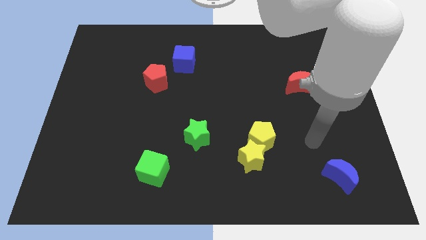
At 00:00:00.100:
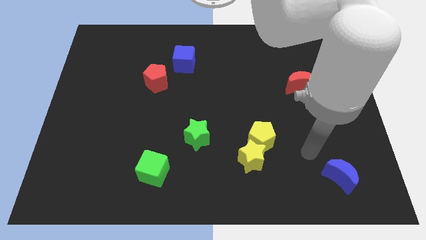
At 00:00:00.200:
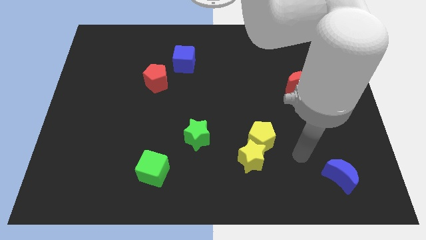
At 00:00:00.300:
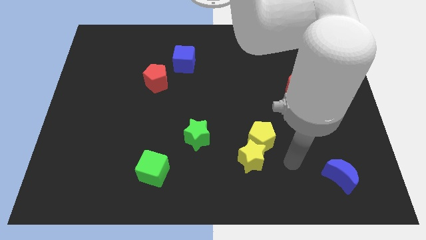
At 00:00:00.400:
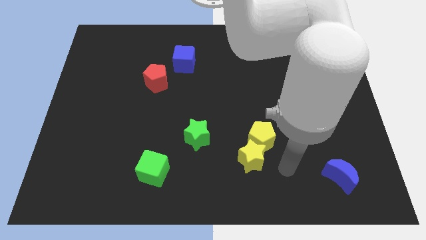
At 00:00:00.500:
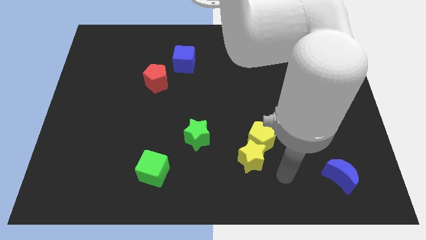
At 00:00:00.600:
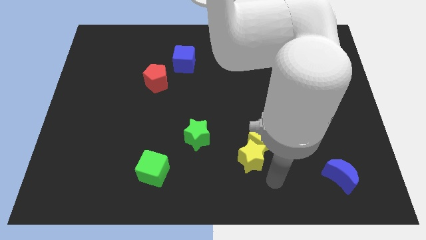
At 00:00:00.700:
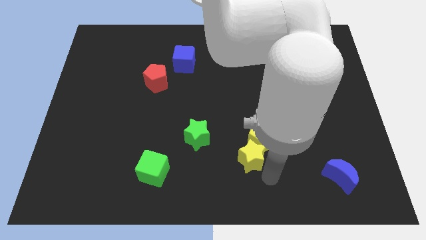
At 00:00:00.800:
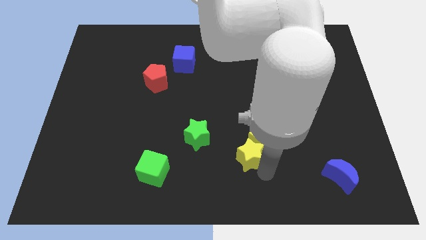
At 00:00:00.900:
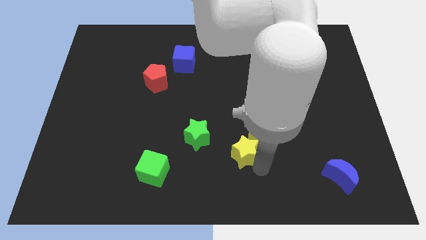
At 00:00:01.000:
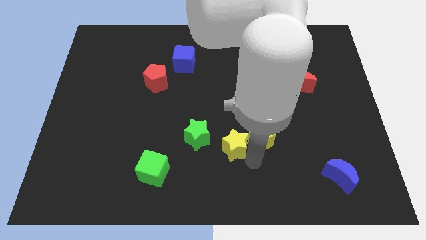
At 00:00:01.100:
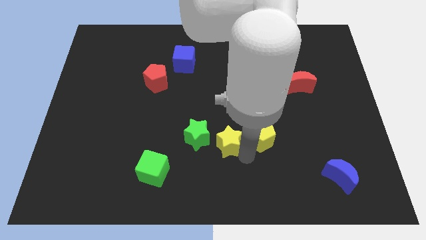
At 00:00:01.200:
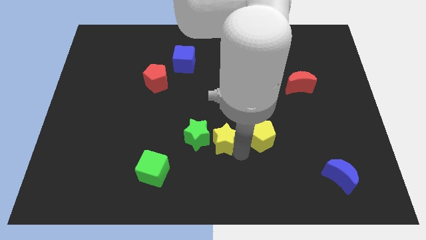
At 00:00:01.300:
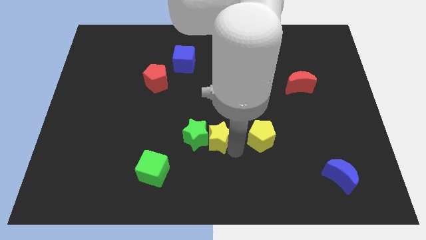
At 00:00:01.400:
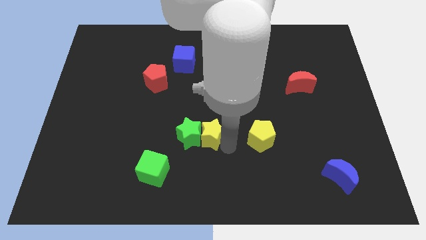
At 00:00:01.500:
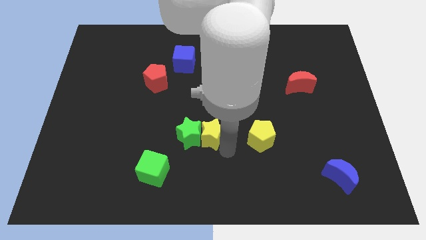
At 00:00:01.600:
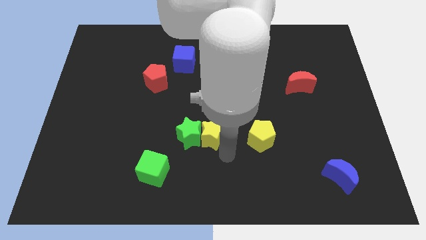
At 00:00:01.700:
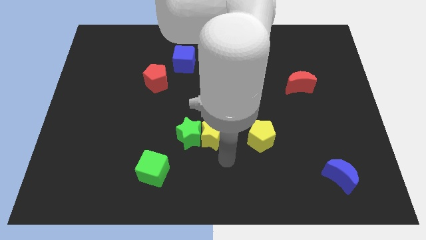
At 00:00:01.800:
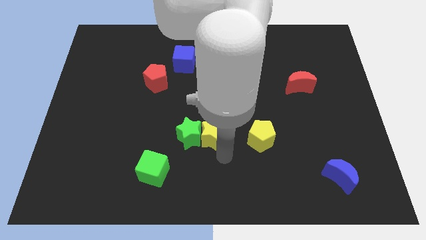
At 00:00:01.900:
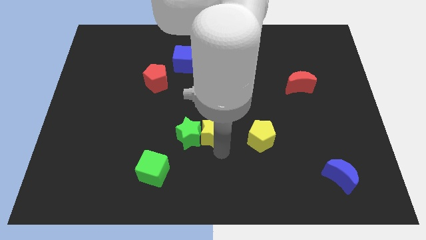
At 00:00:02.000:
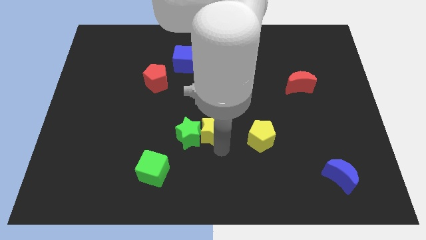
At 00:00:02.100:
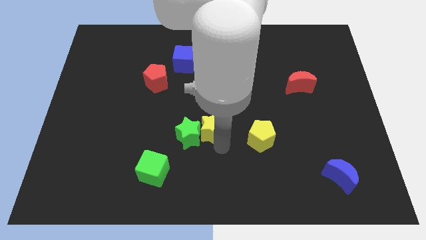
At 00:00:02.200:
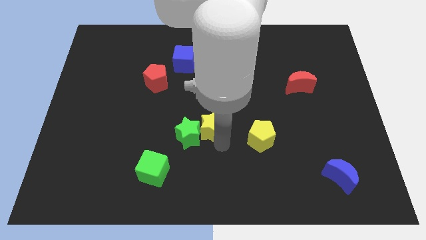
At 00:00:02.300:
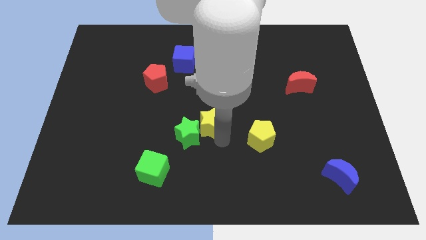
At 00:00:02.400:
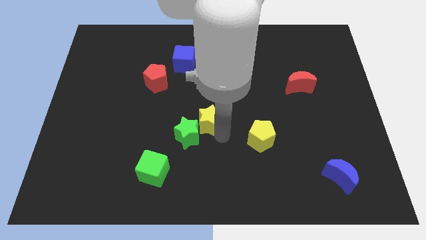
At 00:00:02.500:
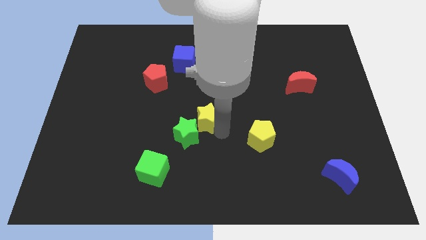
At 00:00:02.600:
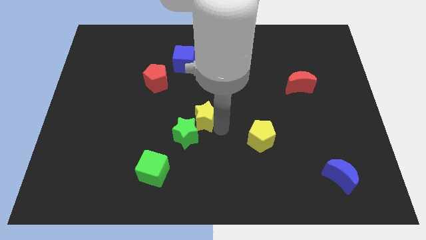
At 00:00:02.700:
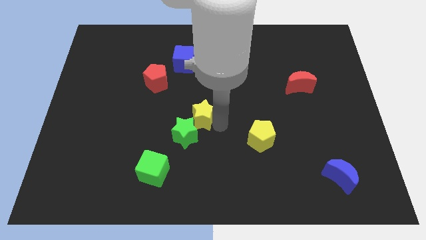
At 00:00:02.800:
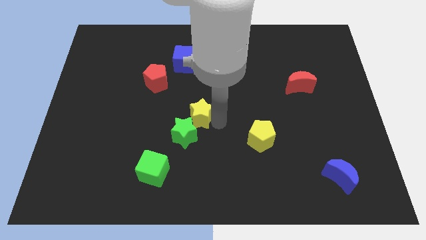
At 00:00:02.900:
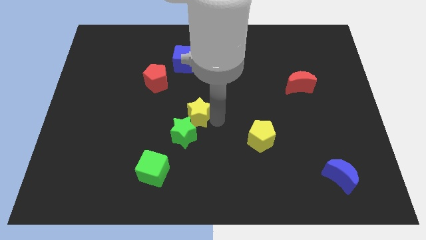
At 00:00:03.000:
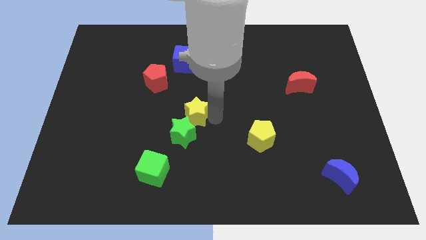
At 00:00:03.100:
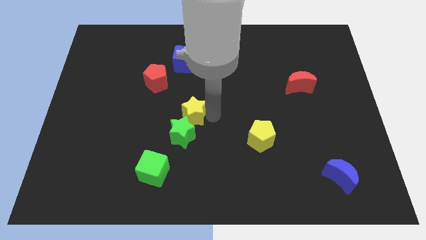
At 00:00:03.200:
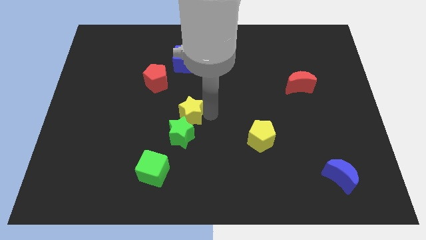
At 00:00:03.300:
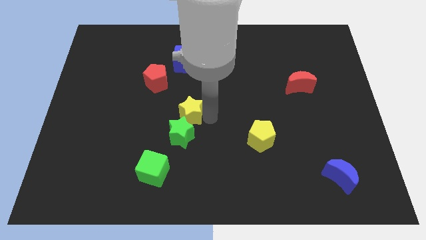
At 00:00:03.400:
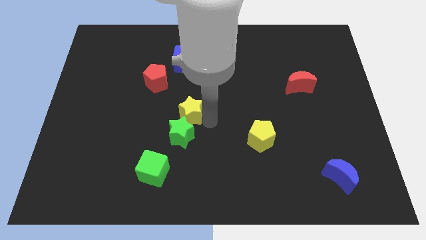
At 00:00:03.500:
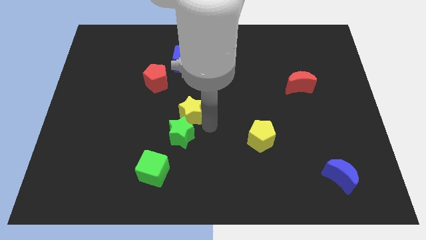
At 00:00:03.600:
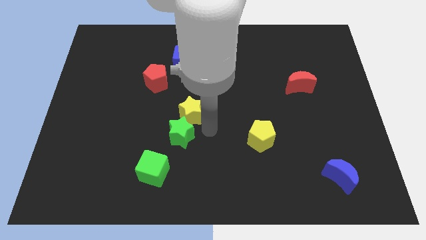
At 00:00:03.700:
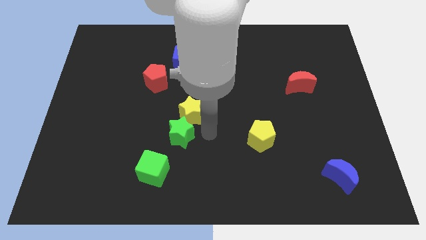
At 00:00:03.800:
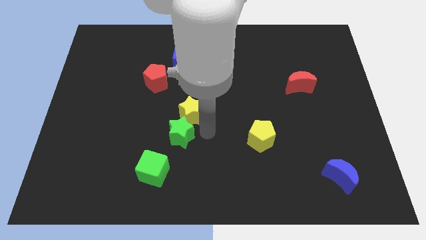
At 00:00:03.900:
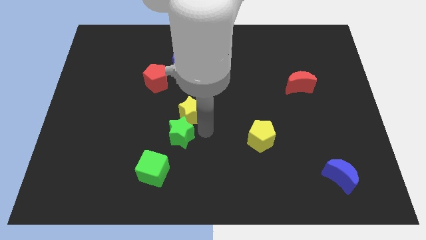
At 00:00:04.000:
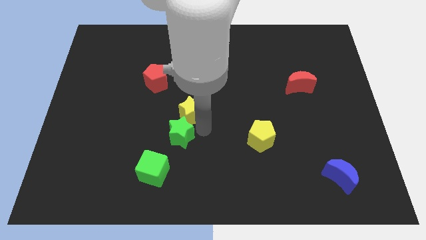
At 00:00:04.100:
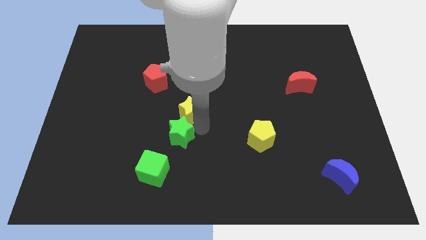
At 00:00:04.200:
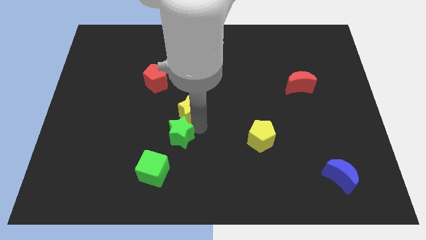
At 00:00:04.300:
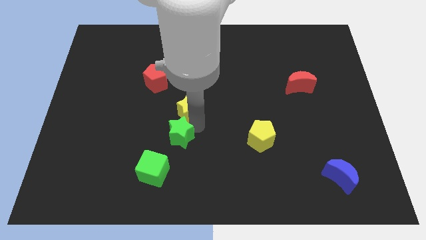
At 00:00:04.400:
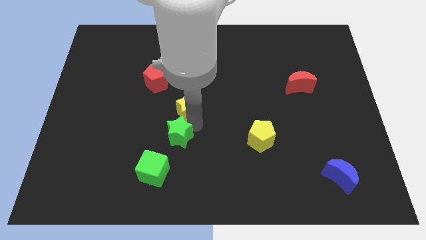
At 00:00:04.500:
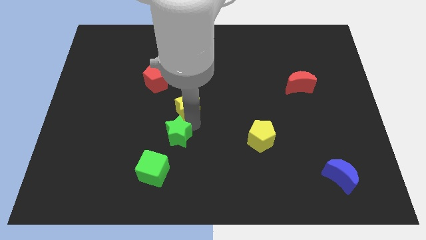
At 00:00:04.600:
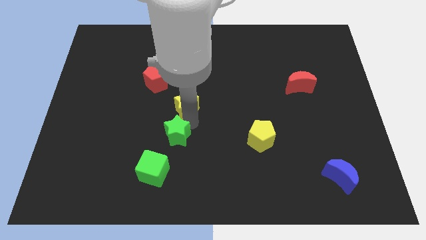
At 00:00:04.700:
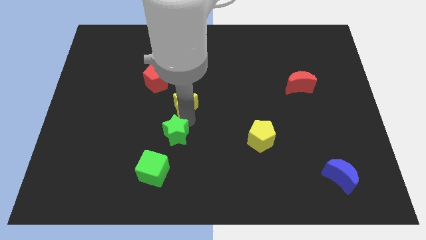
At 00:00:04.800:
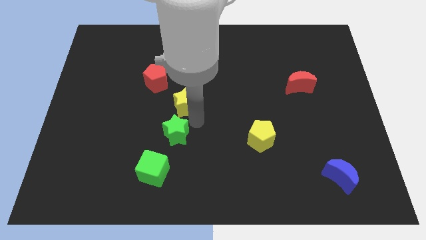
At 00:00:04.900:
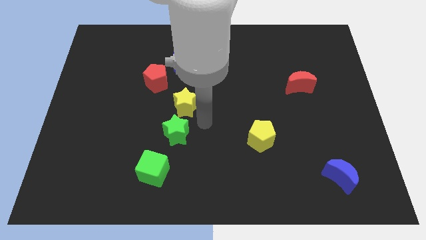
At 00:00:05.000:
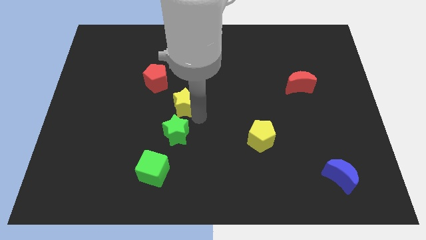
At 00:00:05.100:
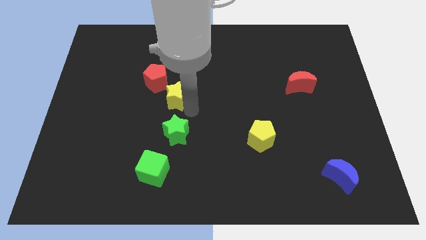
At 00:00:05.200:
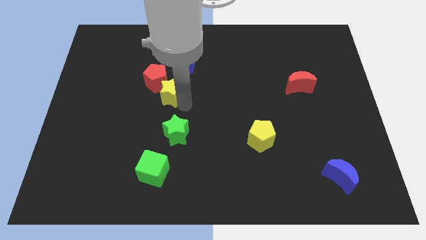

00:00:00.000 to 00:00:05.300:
move the yellow star to the red pentagon

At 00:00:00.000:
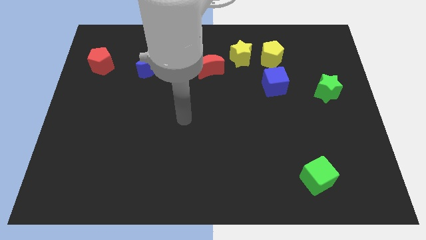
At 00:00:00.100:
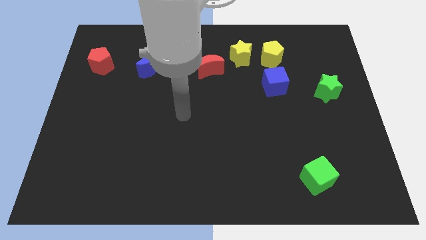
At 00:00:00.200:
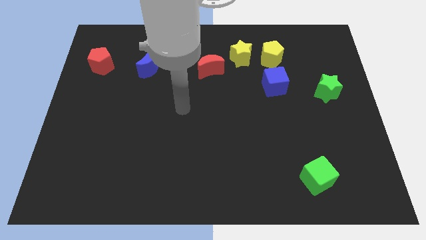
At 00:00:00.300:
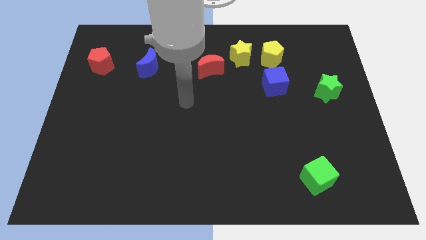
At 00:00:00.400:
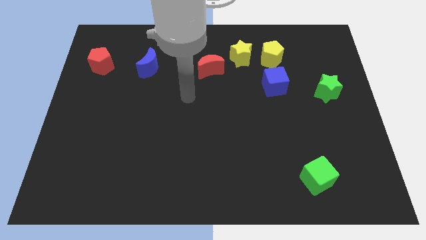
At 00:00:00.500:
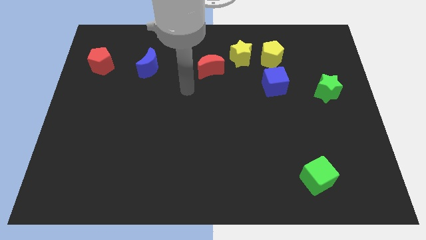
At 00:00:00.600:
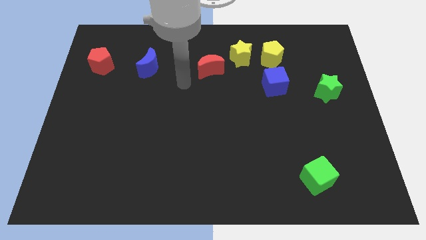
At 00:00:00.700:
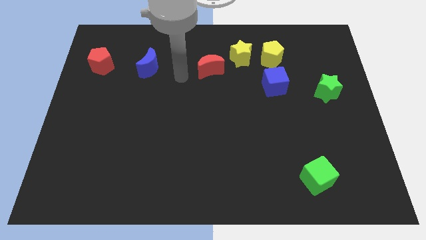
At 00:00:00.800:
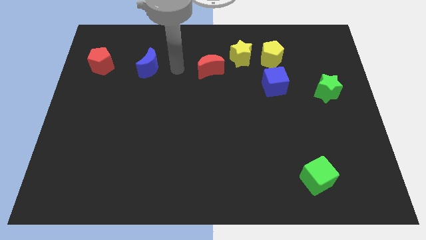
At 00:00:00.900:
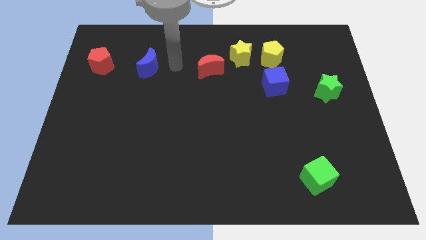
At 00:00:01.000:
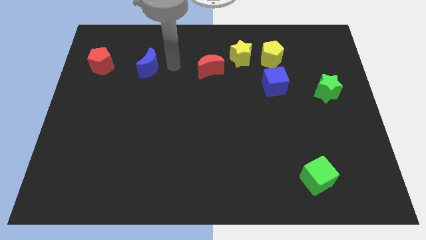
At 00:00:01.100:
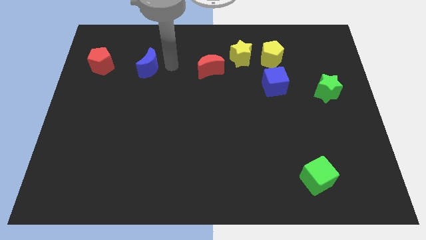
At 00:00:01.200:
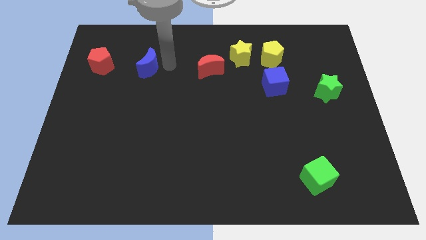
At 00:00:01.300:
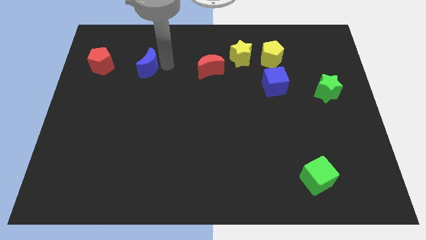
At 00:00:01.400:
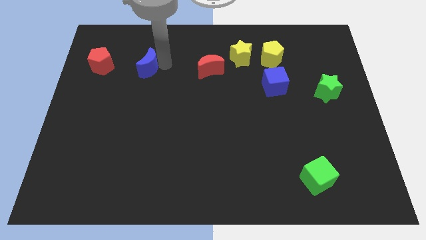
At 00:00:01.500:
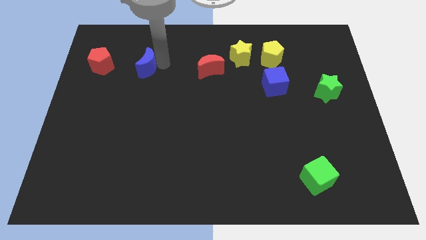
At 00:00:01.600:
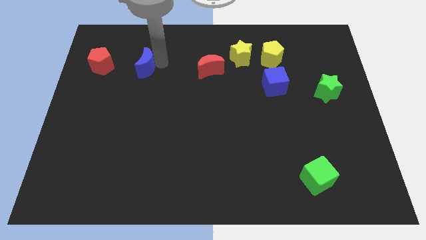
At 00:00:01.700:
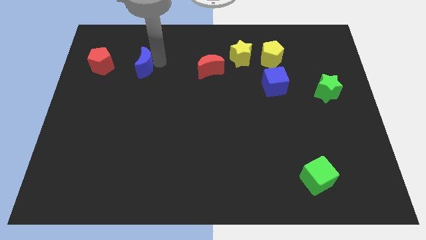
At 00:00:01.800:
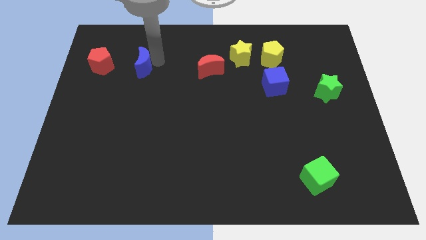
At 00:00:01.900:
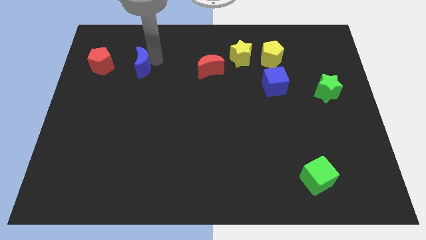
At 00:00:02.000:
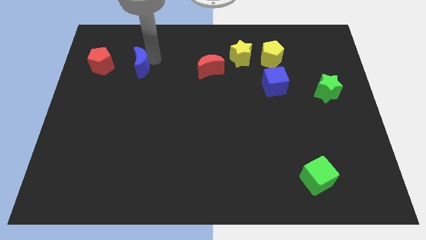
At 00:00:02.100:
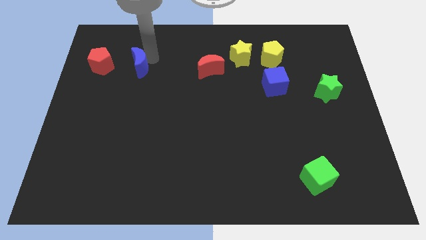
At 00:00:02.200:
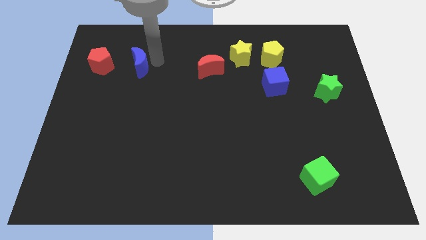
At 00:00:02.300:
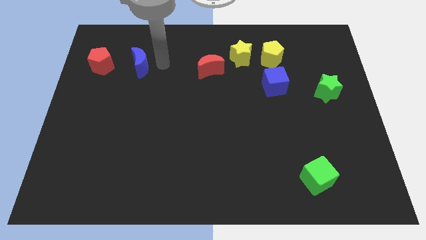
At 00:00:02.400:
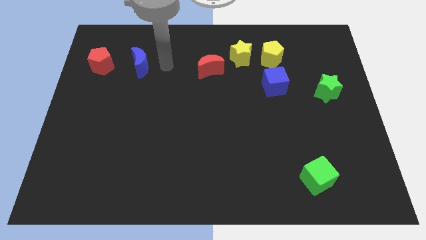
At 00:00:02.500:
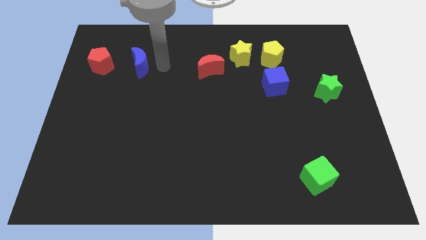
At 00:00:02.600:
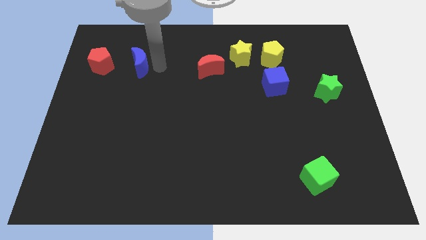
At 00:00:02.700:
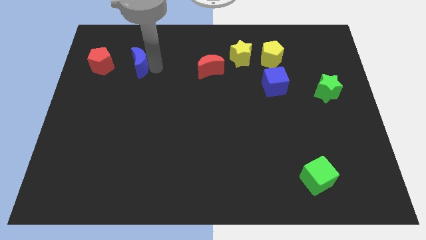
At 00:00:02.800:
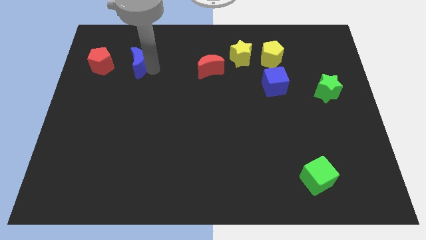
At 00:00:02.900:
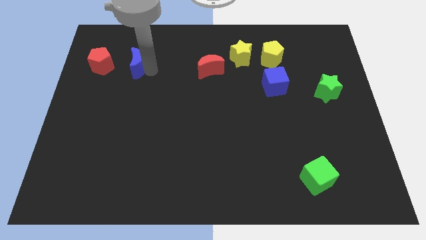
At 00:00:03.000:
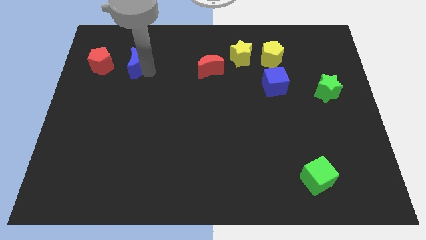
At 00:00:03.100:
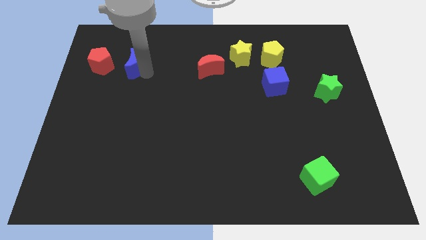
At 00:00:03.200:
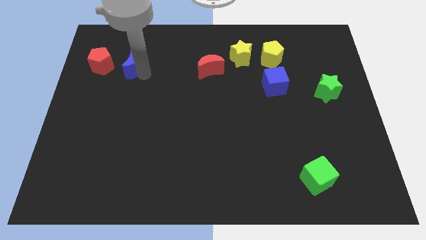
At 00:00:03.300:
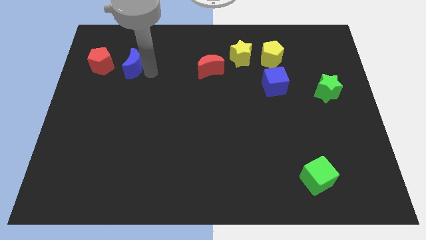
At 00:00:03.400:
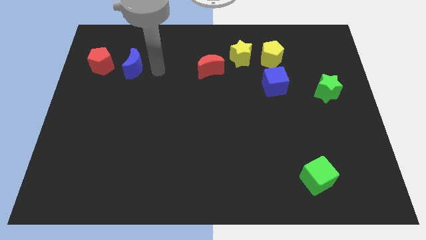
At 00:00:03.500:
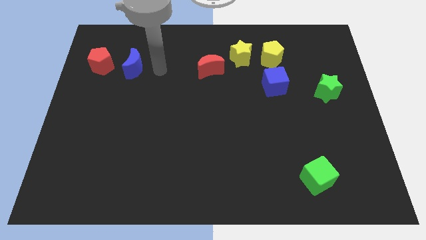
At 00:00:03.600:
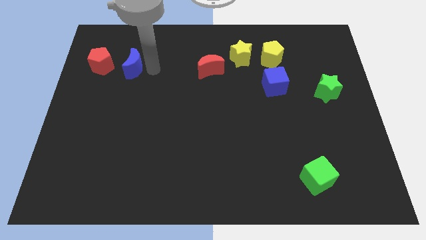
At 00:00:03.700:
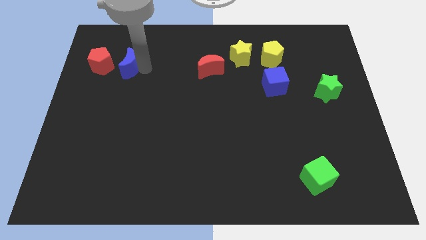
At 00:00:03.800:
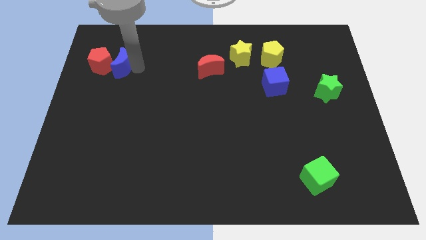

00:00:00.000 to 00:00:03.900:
put the blue moon next to the red pentagon
